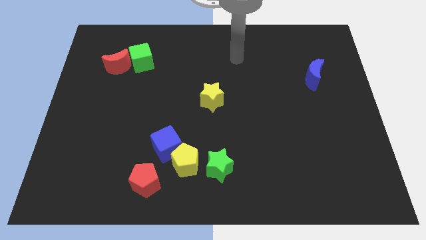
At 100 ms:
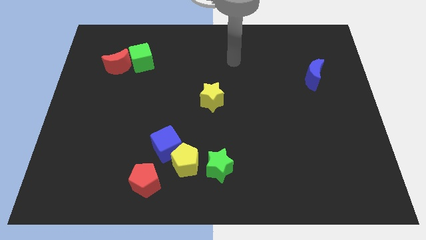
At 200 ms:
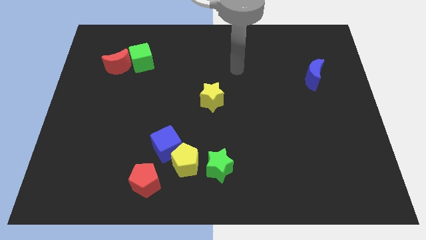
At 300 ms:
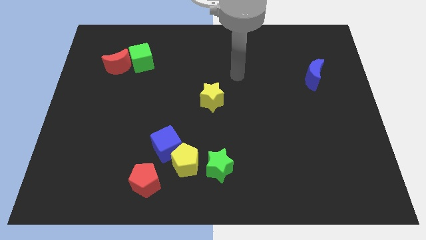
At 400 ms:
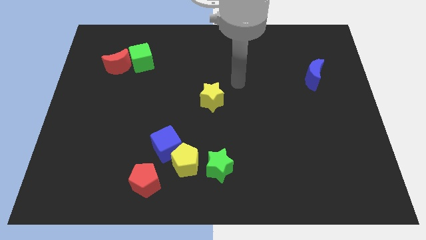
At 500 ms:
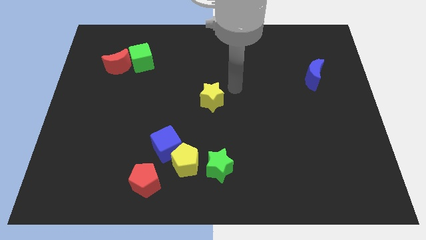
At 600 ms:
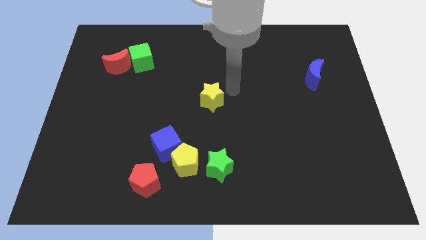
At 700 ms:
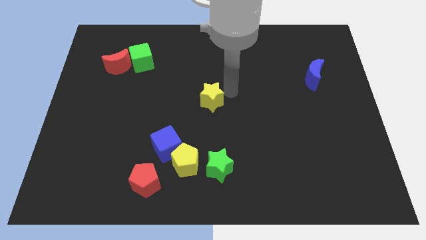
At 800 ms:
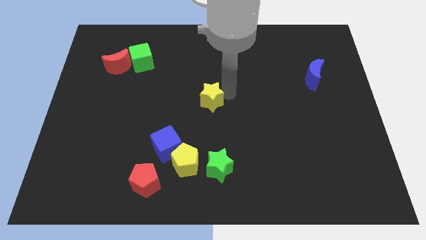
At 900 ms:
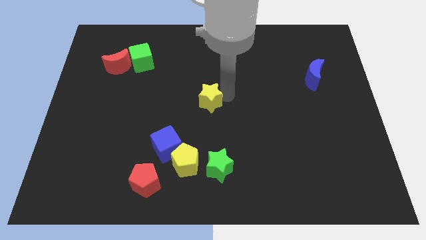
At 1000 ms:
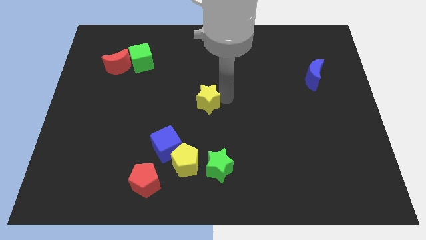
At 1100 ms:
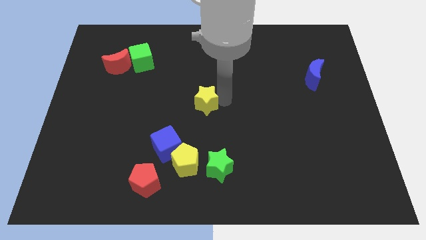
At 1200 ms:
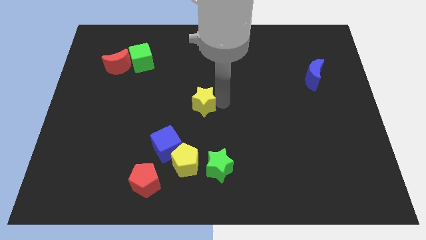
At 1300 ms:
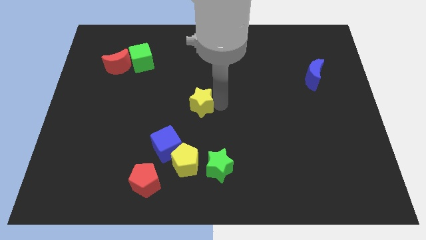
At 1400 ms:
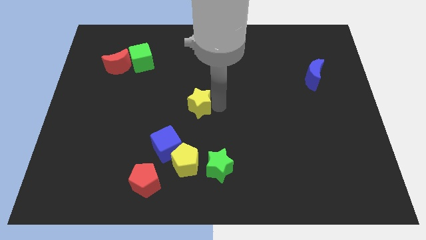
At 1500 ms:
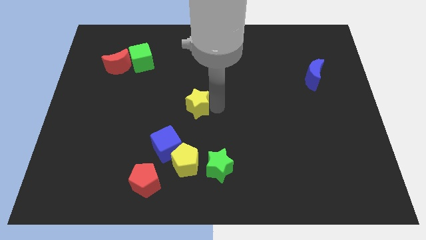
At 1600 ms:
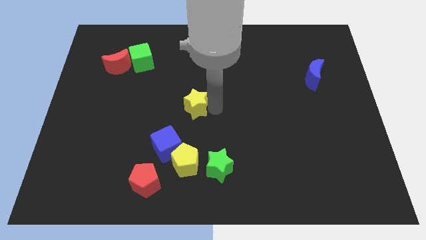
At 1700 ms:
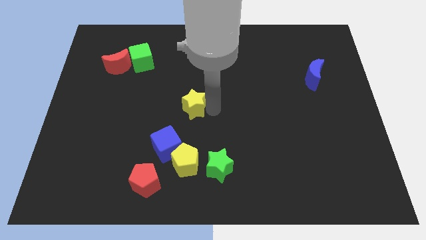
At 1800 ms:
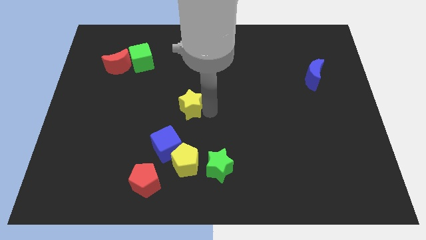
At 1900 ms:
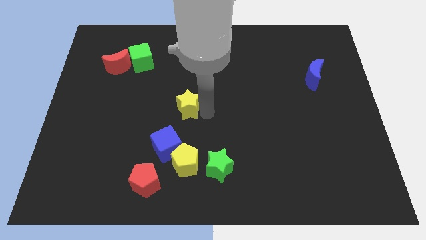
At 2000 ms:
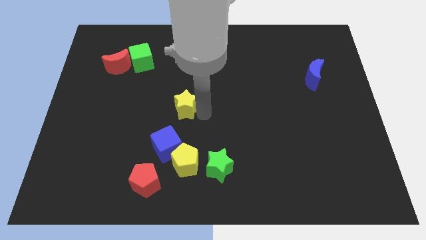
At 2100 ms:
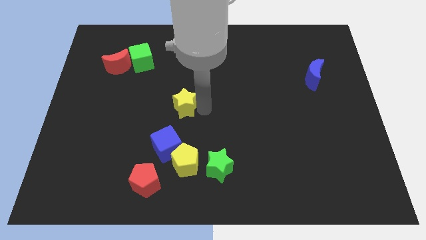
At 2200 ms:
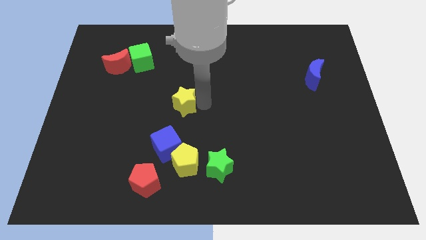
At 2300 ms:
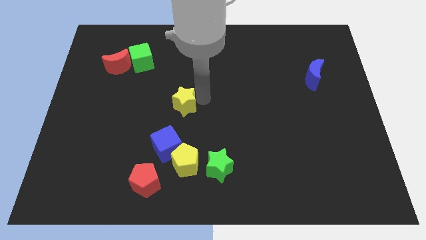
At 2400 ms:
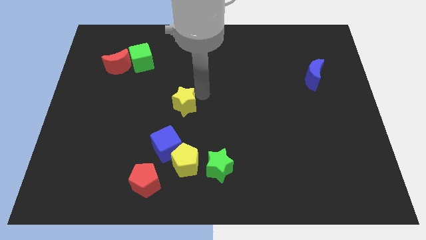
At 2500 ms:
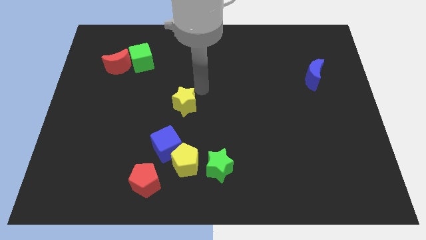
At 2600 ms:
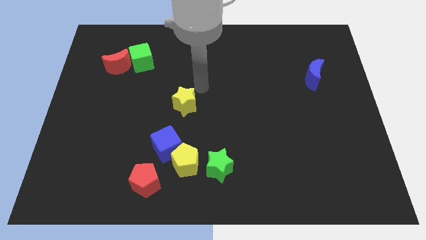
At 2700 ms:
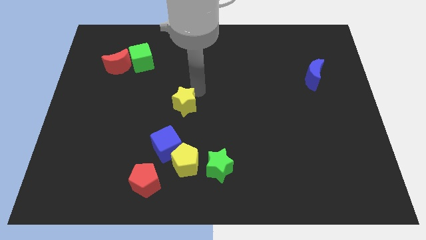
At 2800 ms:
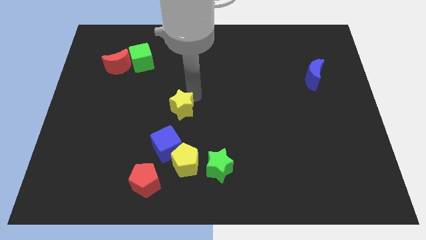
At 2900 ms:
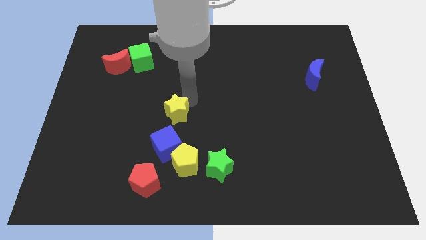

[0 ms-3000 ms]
slide the yellow star down and then to the left a little

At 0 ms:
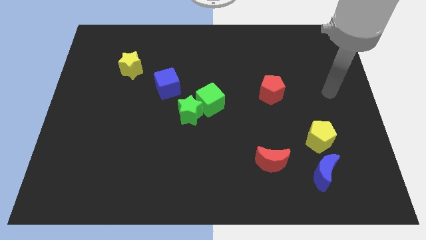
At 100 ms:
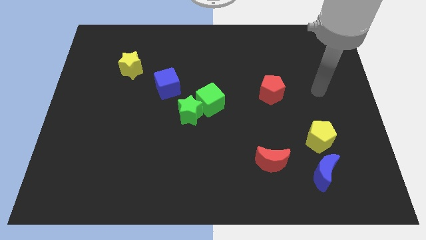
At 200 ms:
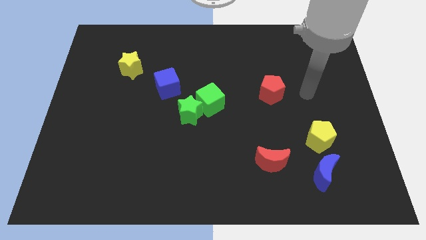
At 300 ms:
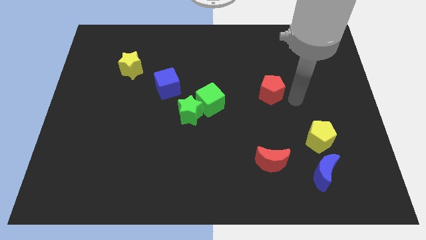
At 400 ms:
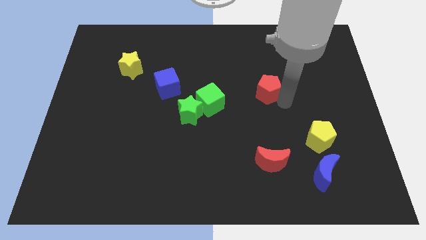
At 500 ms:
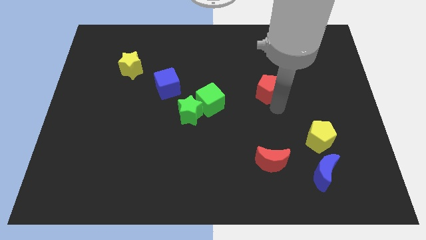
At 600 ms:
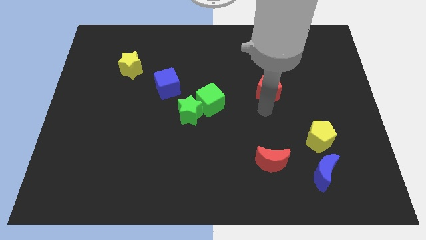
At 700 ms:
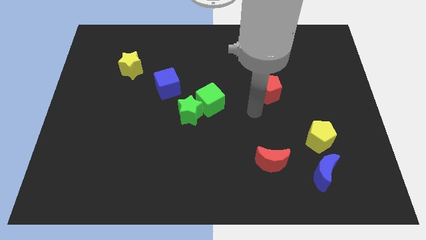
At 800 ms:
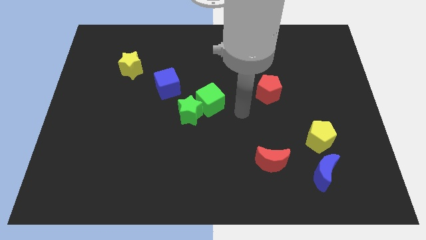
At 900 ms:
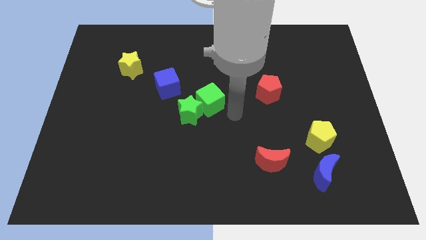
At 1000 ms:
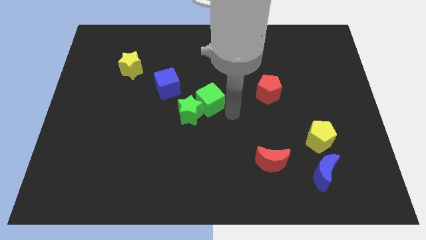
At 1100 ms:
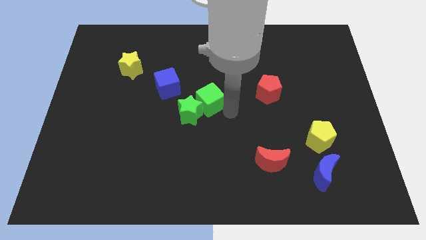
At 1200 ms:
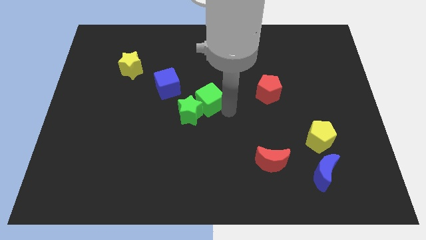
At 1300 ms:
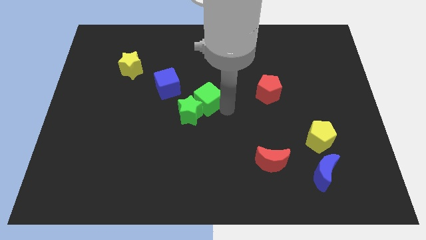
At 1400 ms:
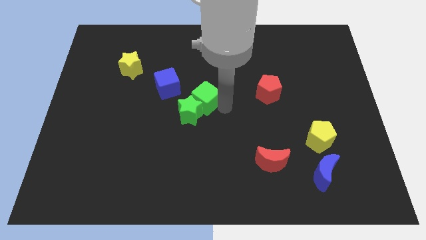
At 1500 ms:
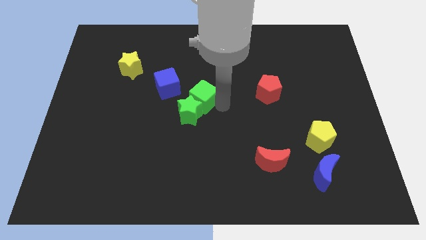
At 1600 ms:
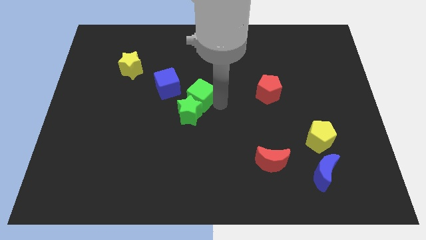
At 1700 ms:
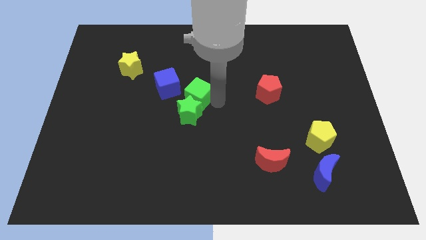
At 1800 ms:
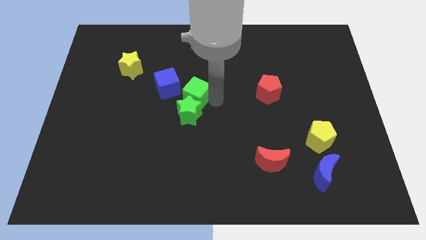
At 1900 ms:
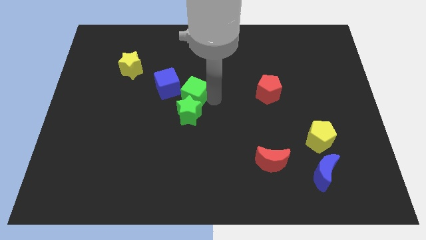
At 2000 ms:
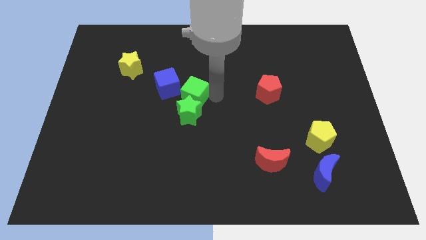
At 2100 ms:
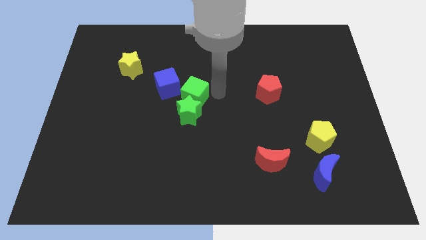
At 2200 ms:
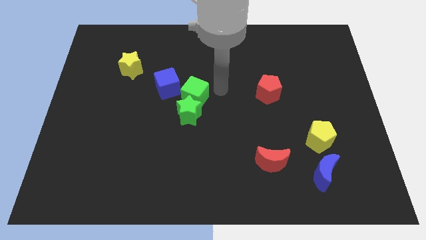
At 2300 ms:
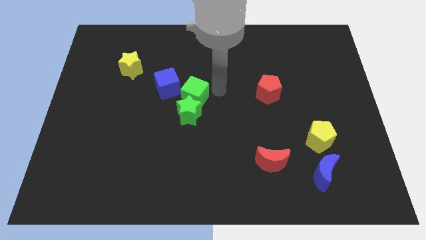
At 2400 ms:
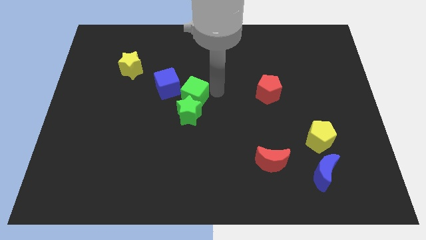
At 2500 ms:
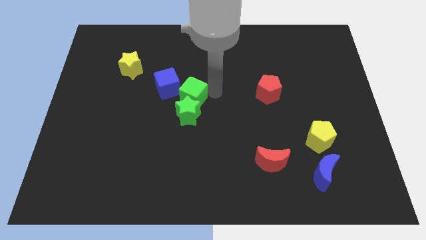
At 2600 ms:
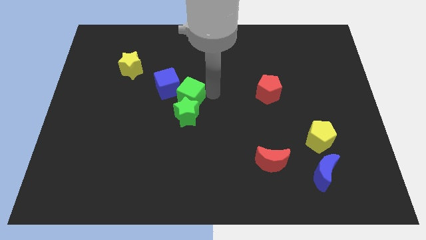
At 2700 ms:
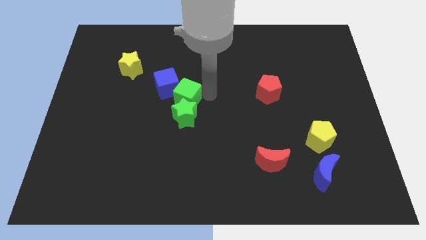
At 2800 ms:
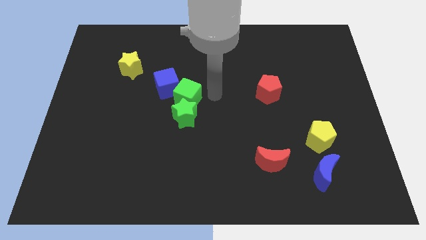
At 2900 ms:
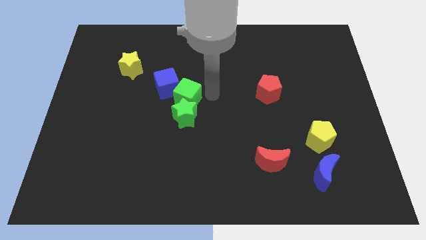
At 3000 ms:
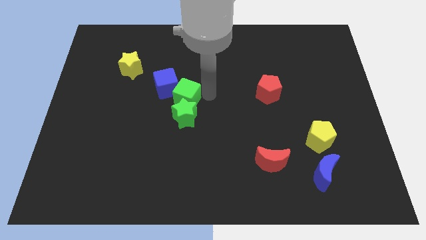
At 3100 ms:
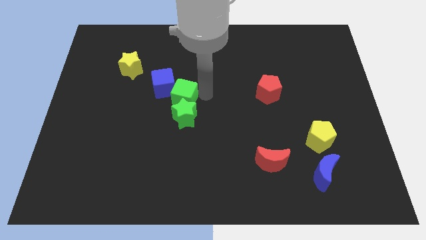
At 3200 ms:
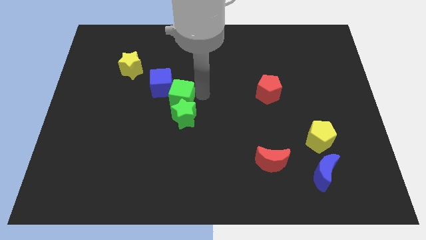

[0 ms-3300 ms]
push the green cube a little to the left

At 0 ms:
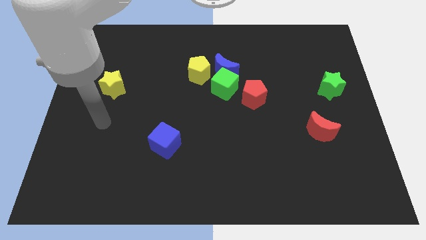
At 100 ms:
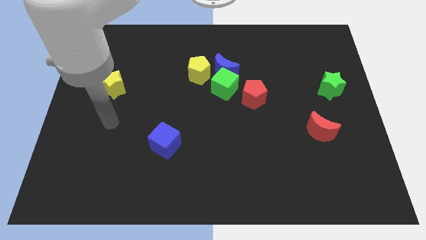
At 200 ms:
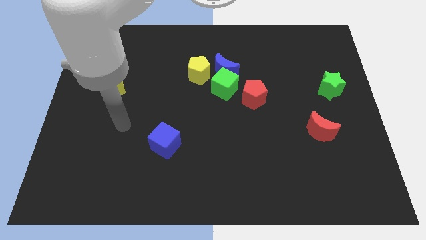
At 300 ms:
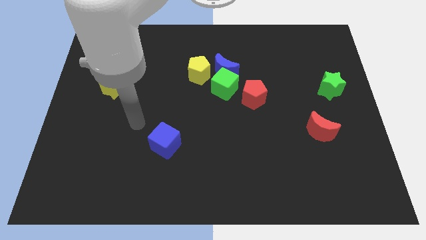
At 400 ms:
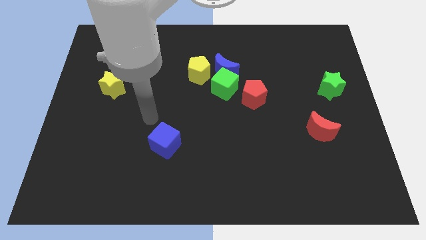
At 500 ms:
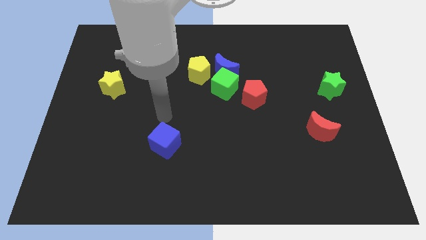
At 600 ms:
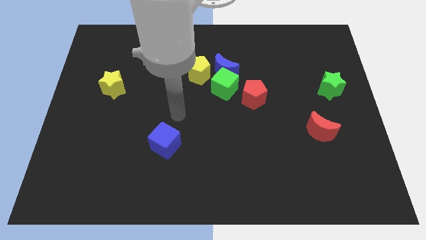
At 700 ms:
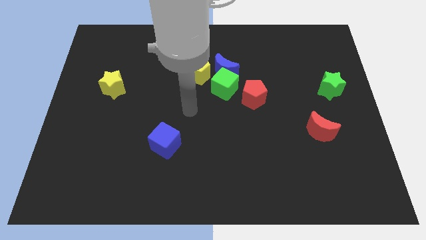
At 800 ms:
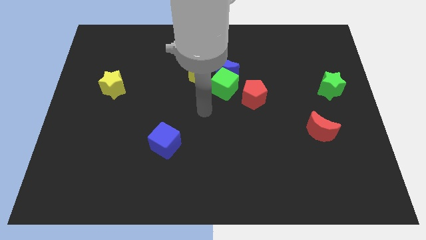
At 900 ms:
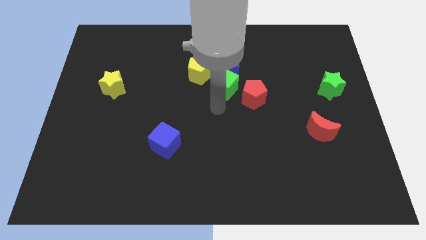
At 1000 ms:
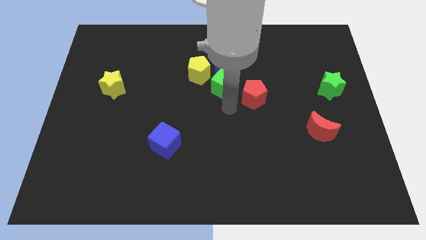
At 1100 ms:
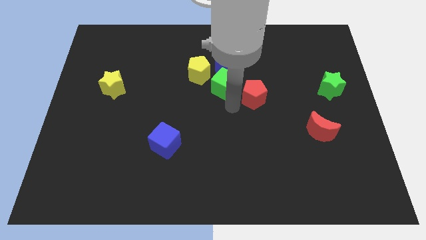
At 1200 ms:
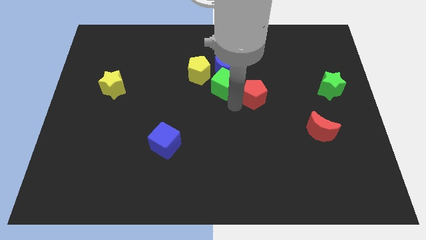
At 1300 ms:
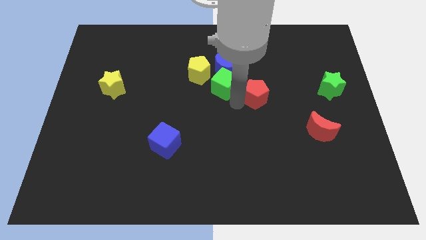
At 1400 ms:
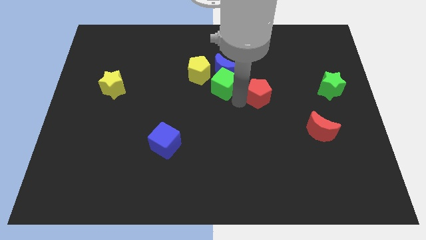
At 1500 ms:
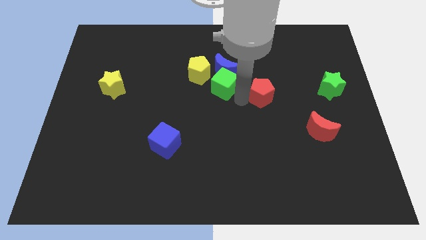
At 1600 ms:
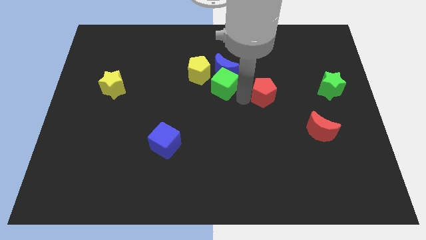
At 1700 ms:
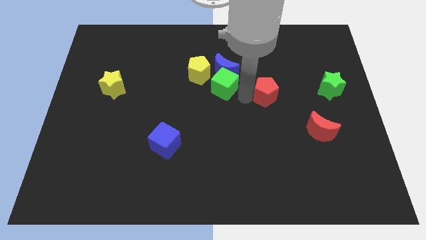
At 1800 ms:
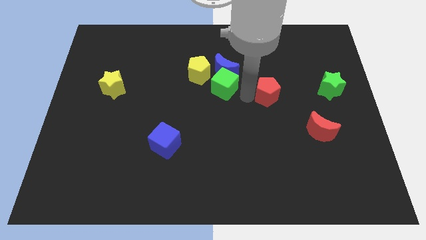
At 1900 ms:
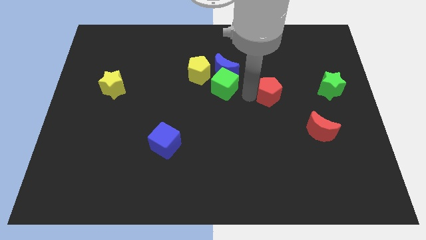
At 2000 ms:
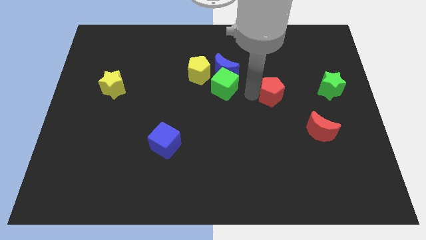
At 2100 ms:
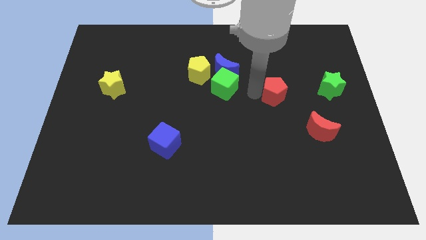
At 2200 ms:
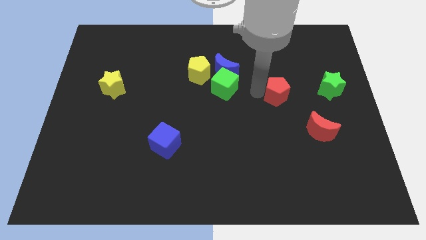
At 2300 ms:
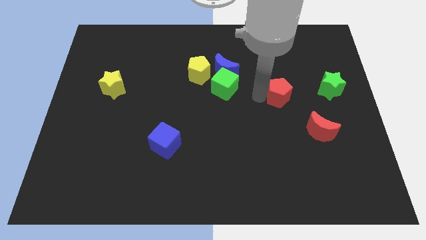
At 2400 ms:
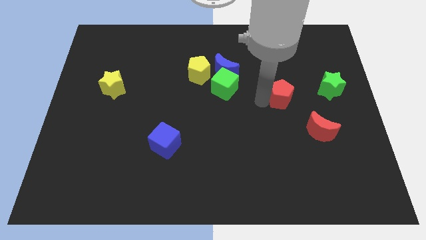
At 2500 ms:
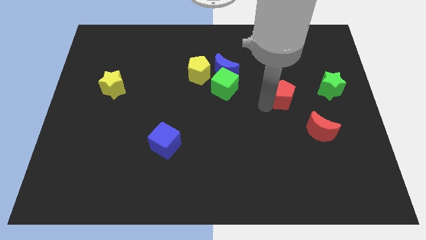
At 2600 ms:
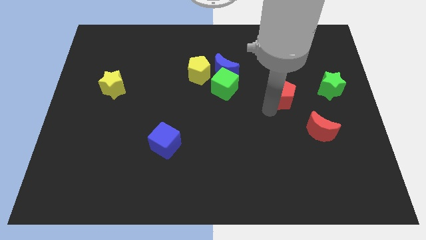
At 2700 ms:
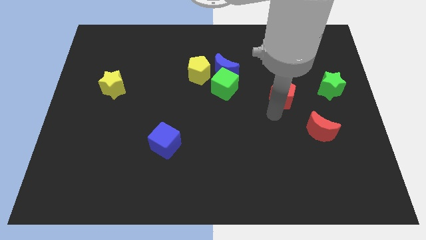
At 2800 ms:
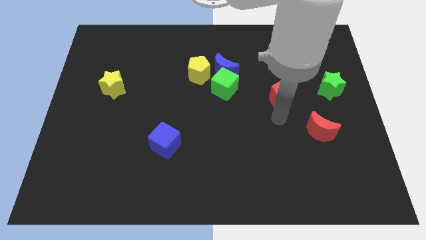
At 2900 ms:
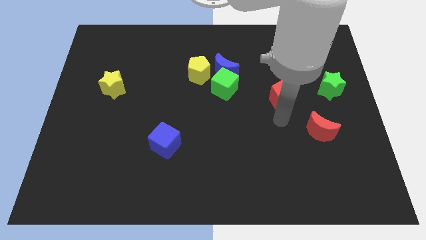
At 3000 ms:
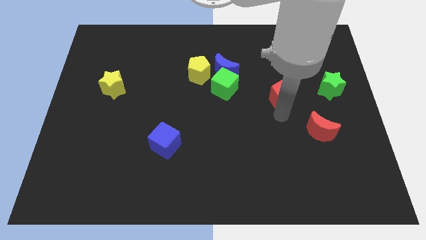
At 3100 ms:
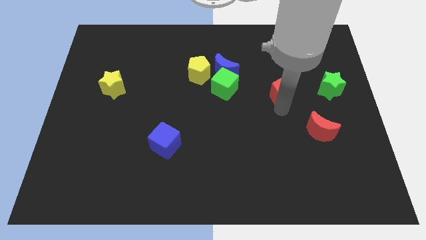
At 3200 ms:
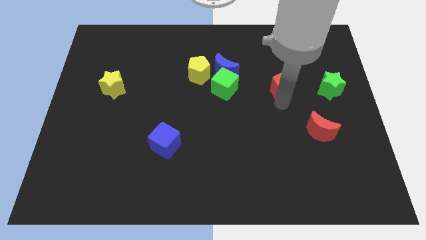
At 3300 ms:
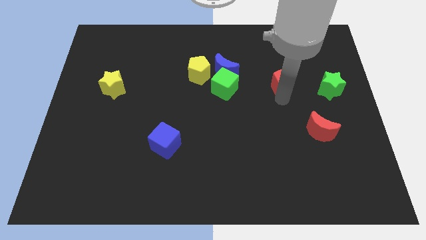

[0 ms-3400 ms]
push the red pentagon slightly upwards and then to the right
